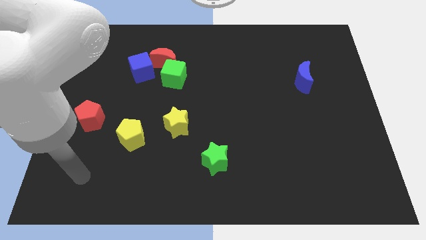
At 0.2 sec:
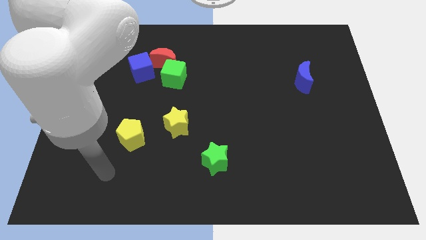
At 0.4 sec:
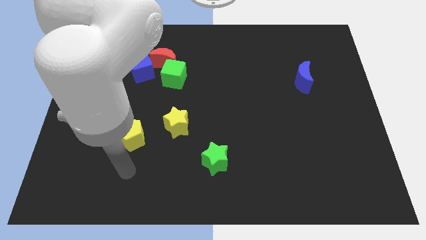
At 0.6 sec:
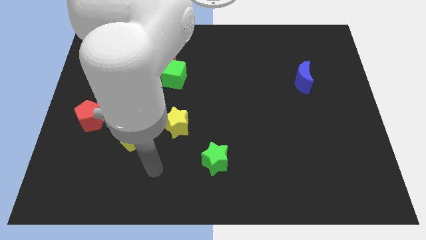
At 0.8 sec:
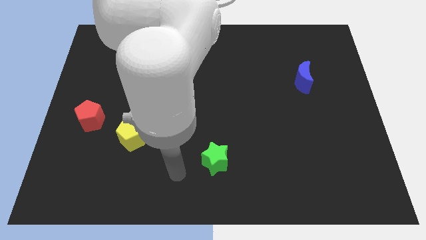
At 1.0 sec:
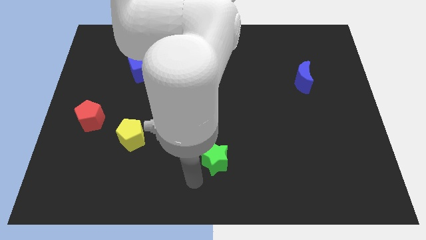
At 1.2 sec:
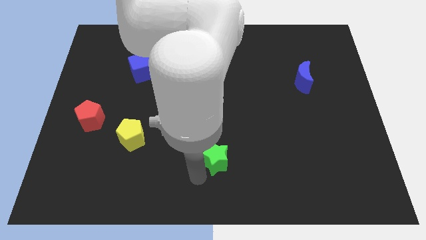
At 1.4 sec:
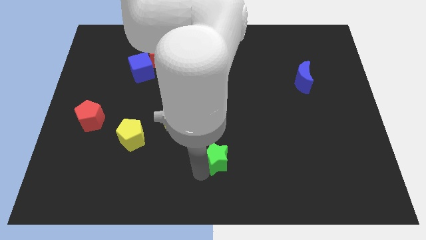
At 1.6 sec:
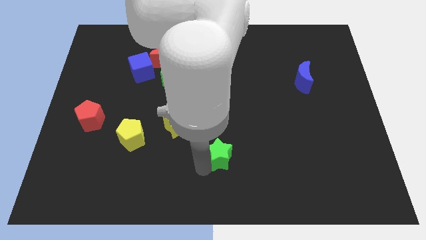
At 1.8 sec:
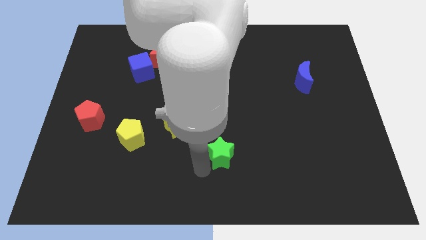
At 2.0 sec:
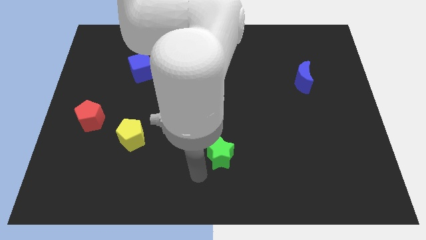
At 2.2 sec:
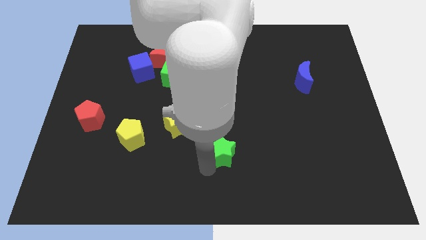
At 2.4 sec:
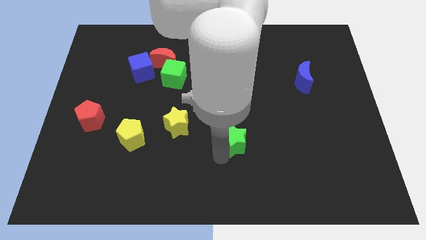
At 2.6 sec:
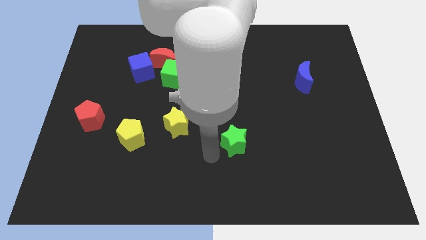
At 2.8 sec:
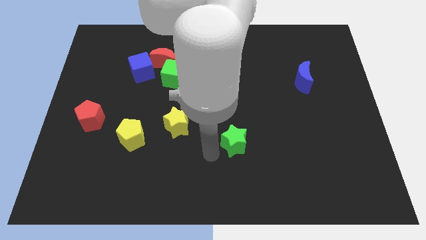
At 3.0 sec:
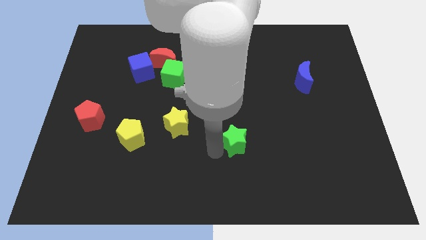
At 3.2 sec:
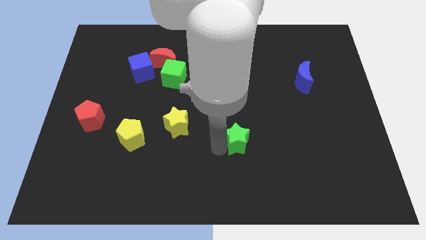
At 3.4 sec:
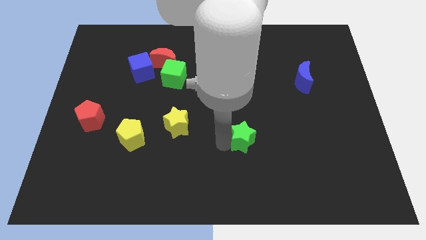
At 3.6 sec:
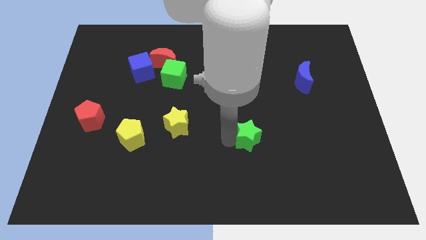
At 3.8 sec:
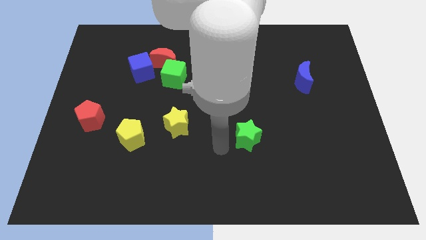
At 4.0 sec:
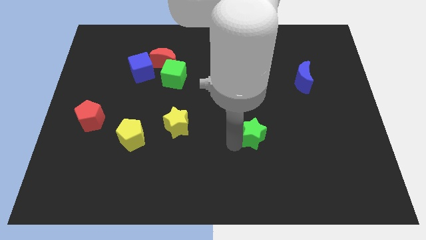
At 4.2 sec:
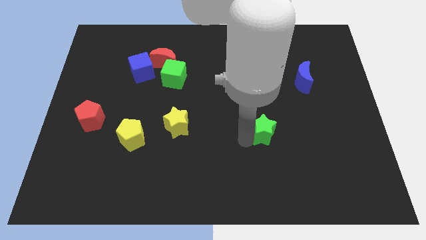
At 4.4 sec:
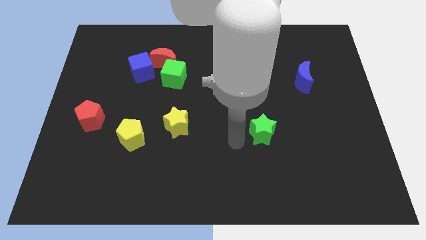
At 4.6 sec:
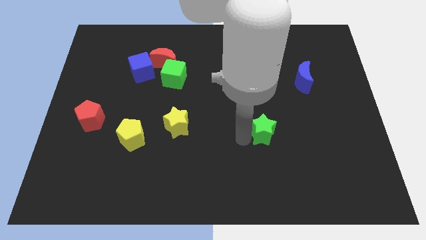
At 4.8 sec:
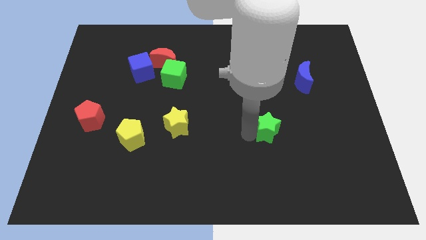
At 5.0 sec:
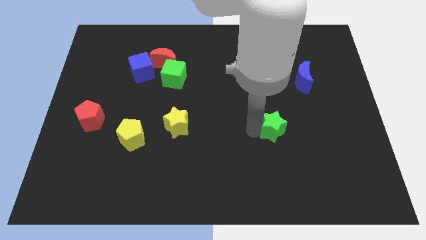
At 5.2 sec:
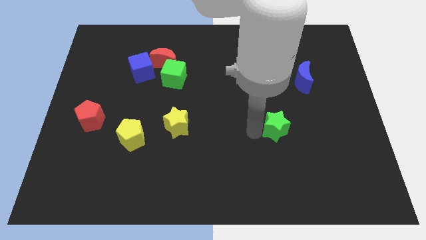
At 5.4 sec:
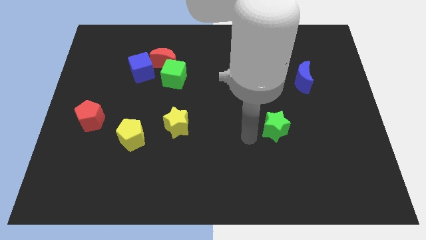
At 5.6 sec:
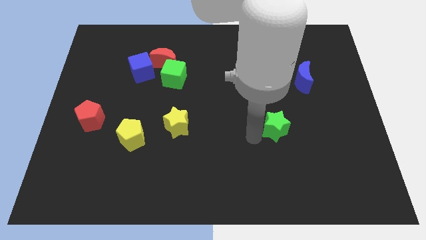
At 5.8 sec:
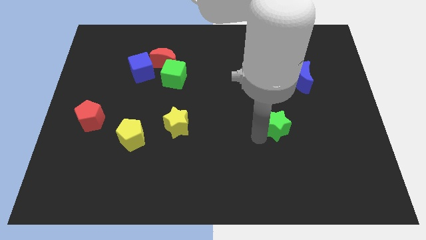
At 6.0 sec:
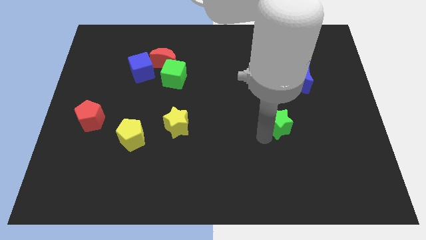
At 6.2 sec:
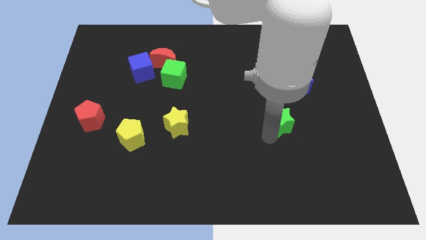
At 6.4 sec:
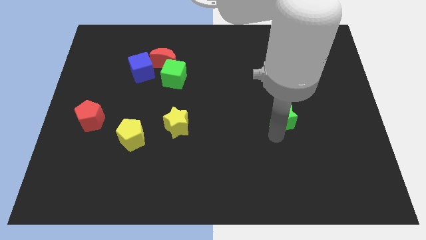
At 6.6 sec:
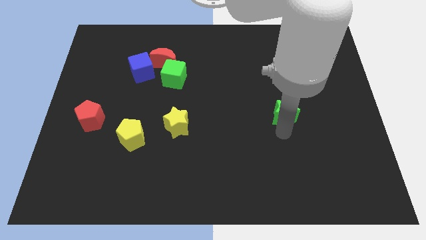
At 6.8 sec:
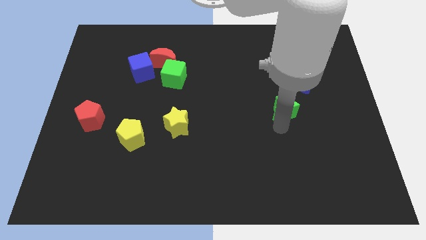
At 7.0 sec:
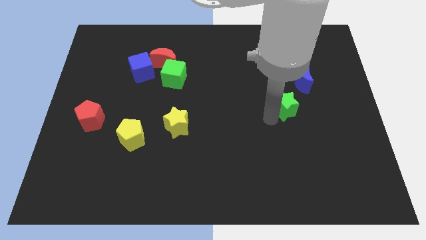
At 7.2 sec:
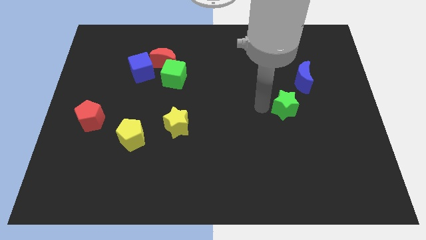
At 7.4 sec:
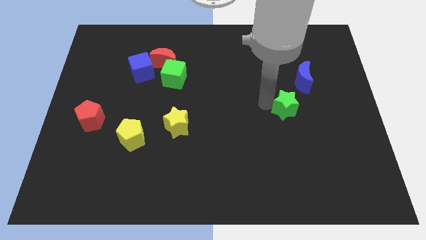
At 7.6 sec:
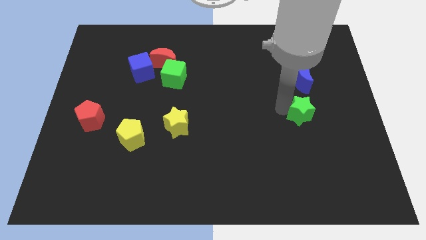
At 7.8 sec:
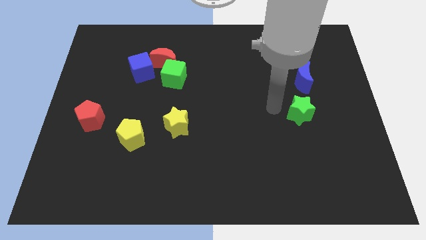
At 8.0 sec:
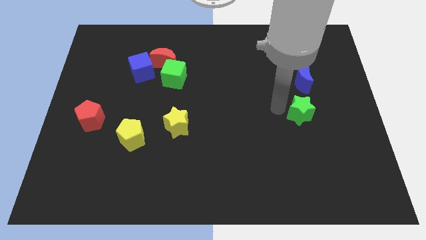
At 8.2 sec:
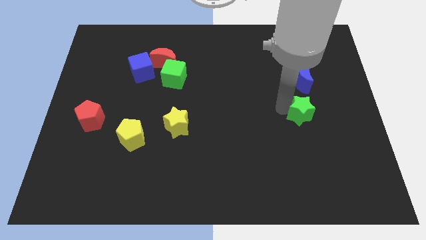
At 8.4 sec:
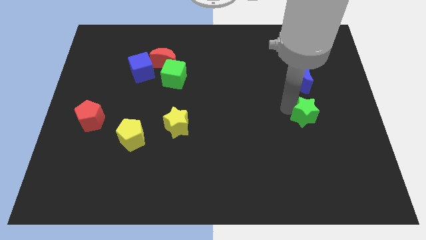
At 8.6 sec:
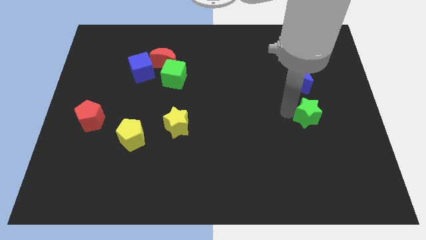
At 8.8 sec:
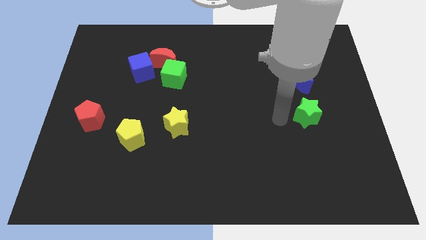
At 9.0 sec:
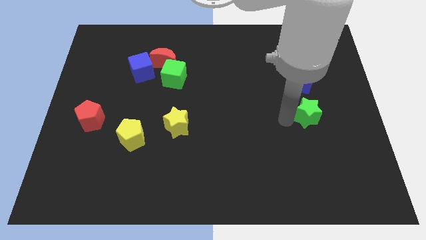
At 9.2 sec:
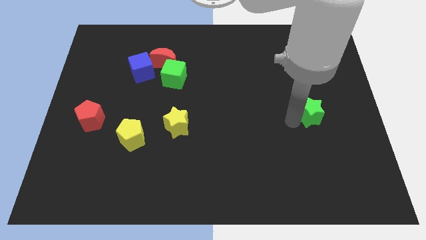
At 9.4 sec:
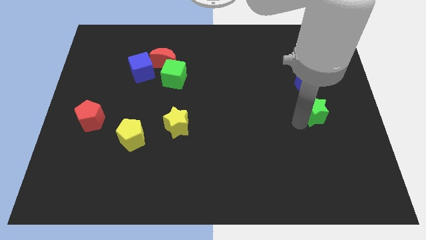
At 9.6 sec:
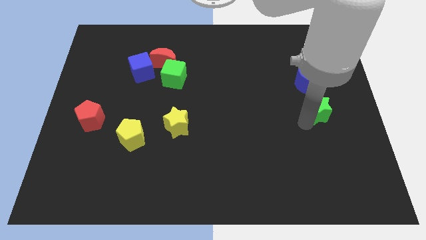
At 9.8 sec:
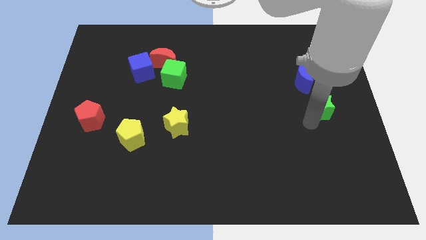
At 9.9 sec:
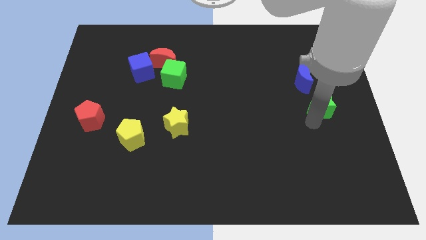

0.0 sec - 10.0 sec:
put the green star to the right side

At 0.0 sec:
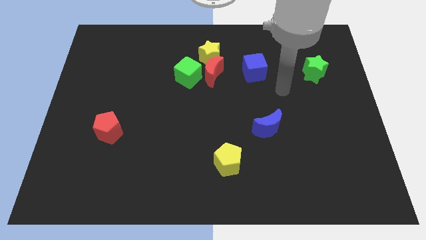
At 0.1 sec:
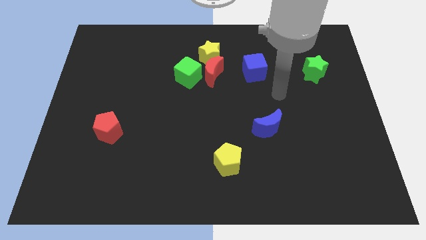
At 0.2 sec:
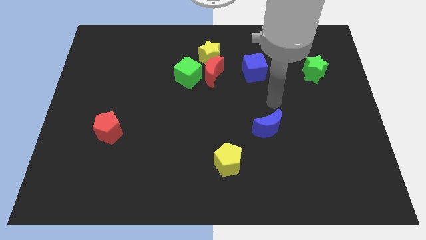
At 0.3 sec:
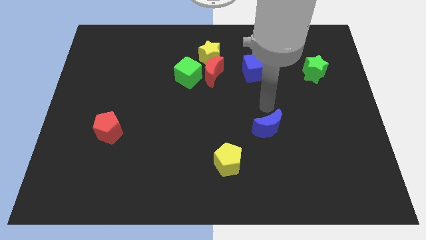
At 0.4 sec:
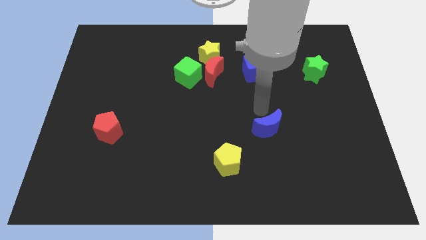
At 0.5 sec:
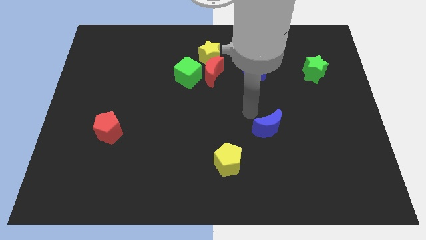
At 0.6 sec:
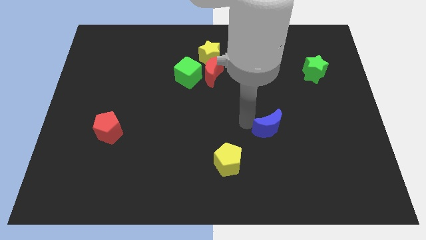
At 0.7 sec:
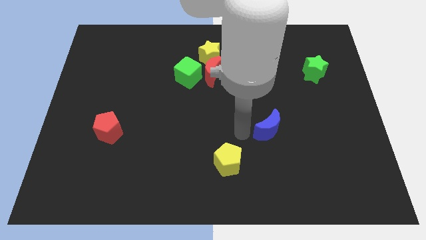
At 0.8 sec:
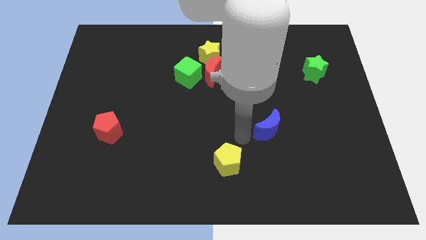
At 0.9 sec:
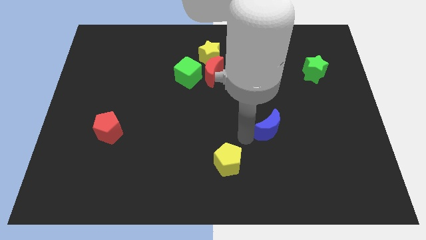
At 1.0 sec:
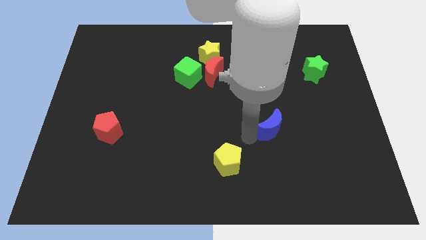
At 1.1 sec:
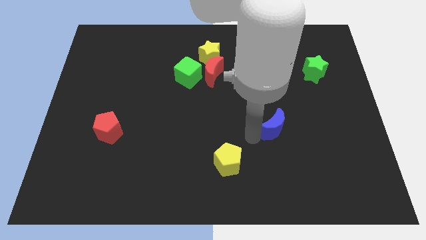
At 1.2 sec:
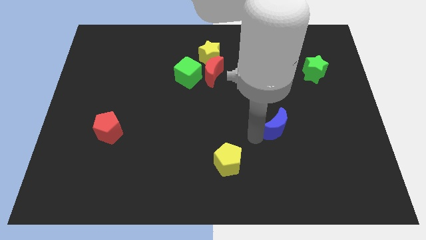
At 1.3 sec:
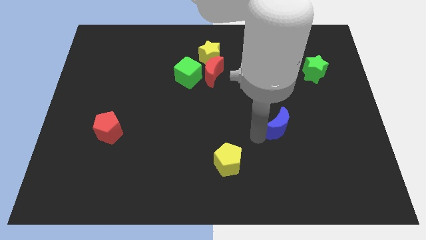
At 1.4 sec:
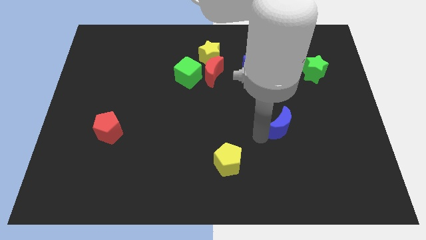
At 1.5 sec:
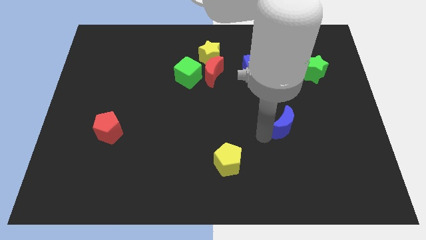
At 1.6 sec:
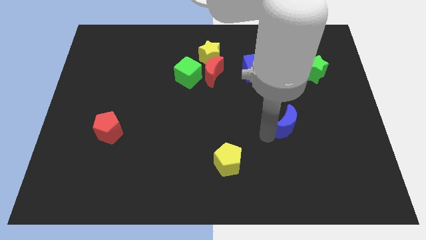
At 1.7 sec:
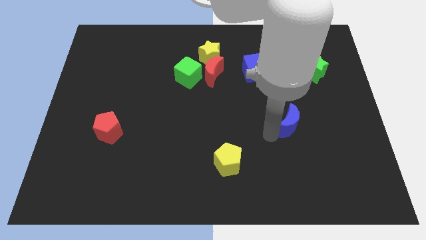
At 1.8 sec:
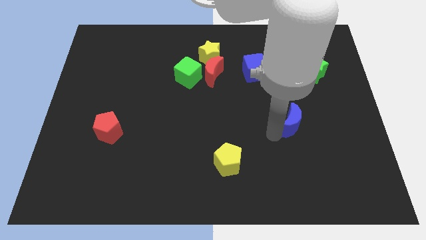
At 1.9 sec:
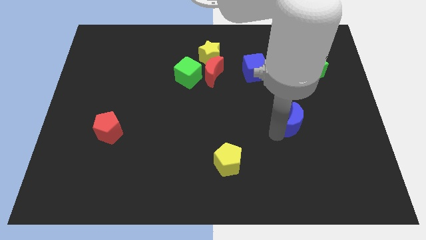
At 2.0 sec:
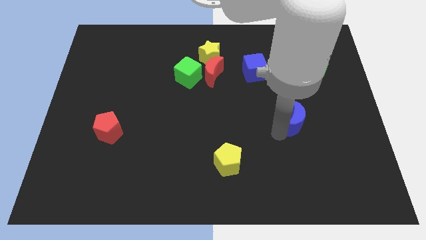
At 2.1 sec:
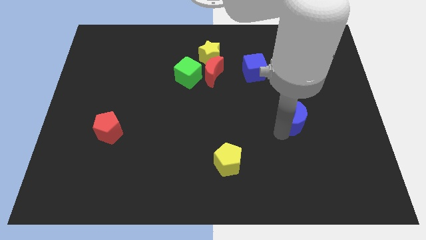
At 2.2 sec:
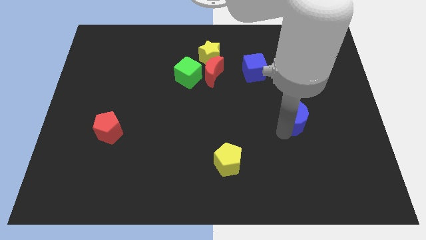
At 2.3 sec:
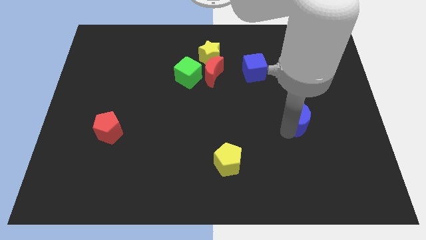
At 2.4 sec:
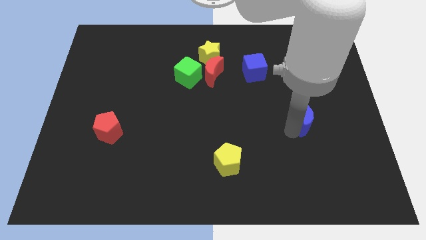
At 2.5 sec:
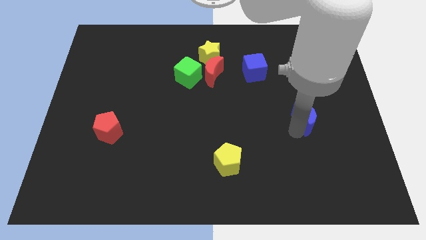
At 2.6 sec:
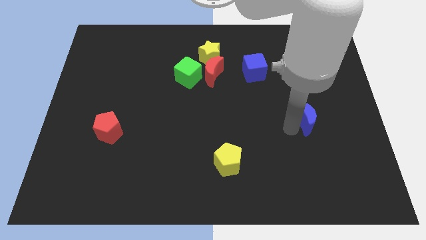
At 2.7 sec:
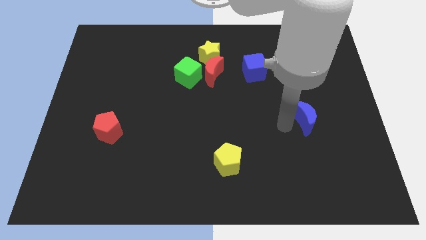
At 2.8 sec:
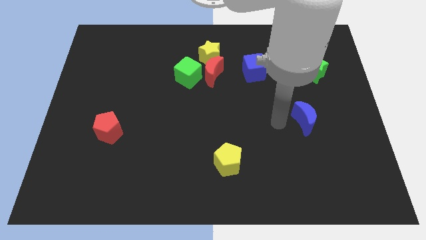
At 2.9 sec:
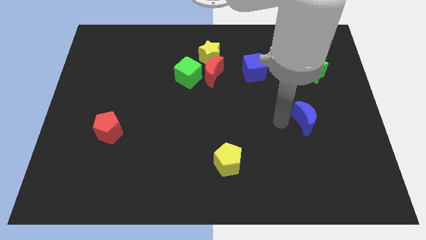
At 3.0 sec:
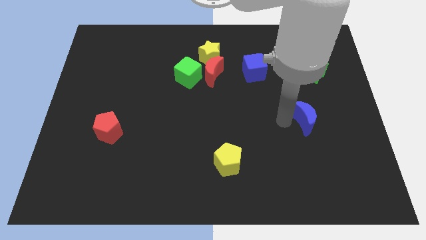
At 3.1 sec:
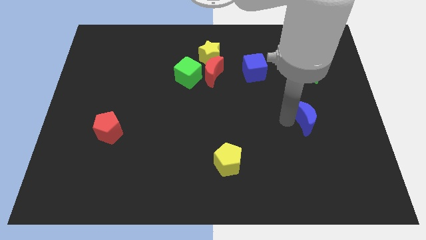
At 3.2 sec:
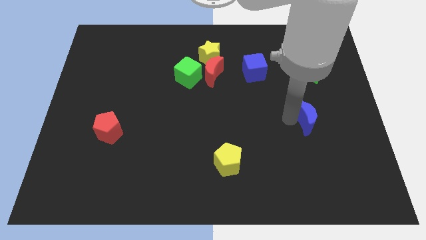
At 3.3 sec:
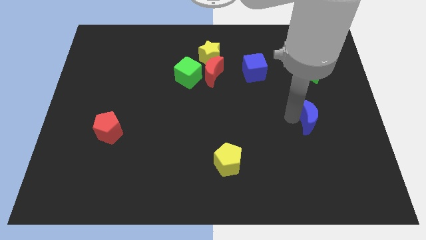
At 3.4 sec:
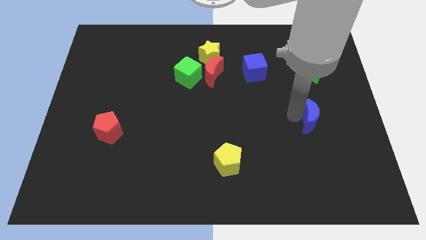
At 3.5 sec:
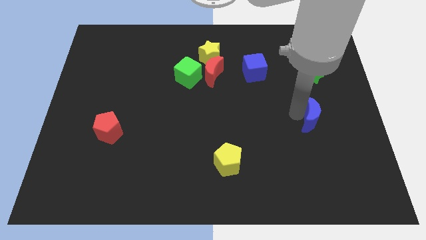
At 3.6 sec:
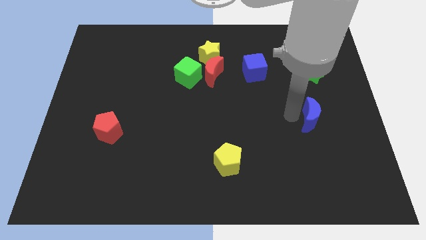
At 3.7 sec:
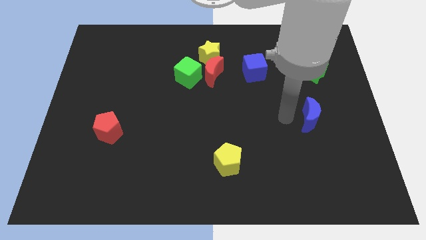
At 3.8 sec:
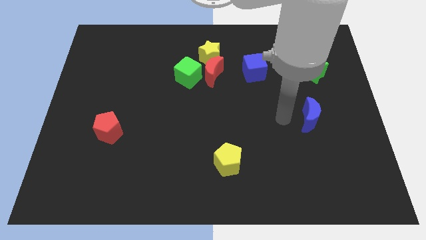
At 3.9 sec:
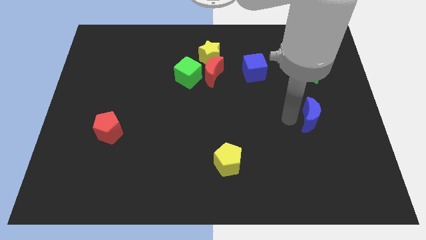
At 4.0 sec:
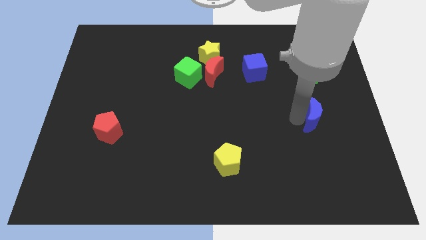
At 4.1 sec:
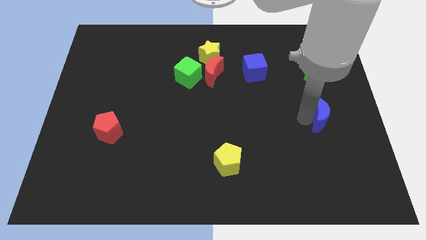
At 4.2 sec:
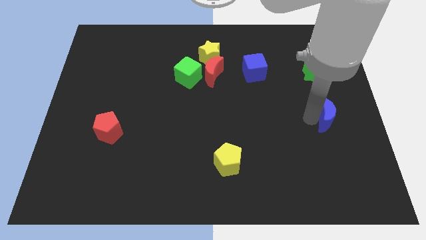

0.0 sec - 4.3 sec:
put the blue moon to the right side
